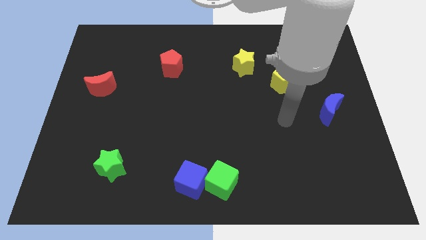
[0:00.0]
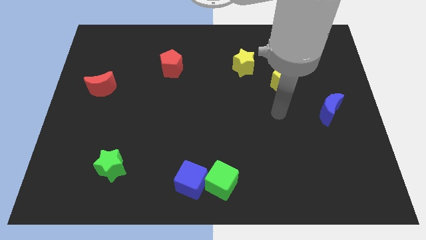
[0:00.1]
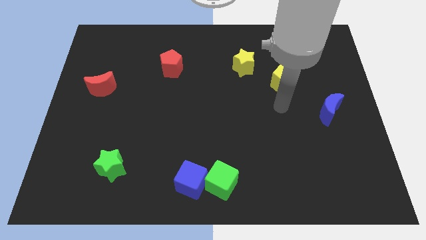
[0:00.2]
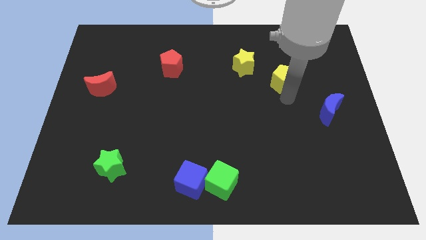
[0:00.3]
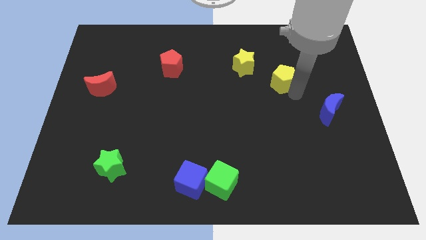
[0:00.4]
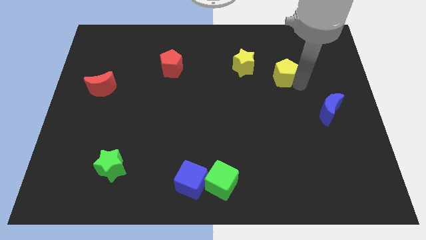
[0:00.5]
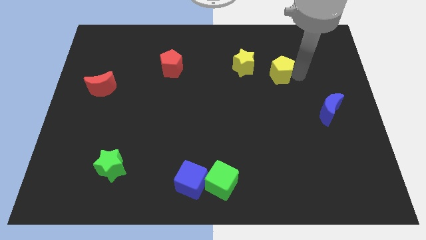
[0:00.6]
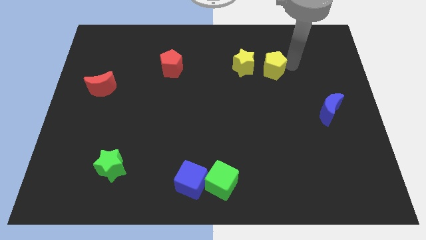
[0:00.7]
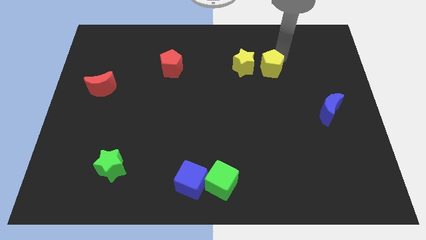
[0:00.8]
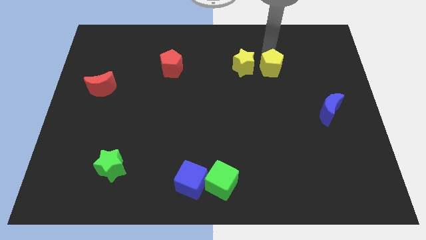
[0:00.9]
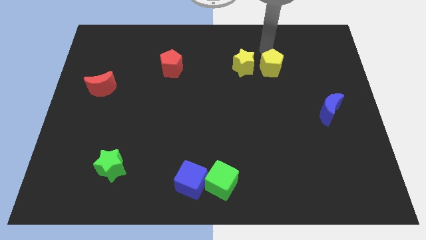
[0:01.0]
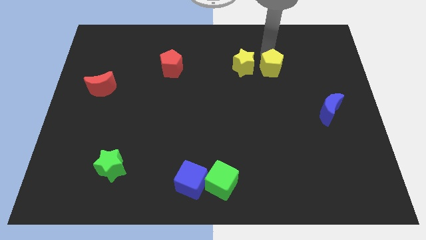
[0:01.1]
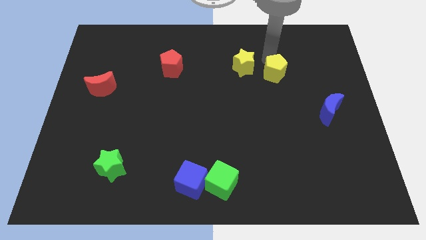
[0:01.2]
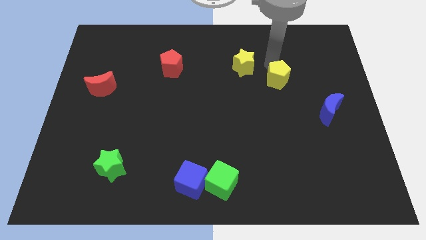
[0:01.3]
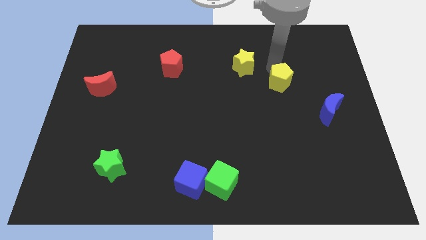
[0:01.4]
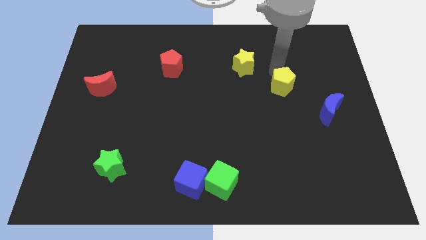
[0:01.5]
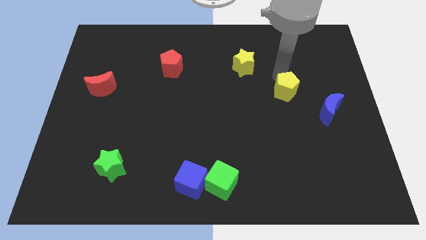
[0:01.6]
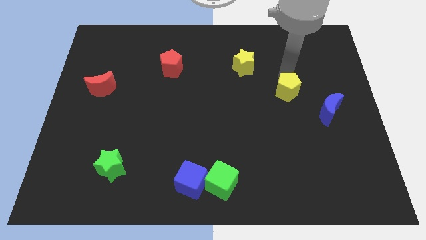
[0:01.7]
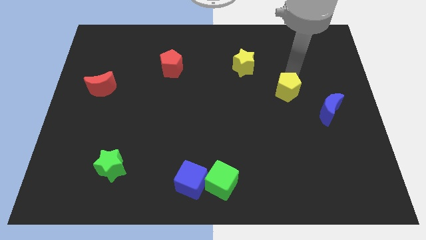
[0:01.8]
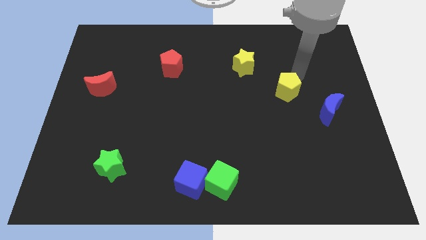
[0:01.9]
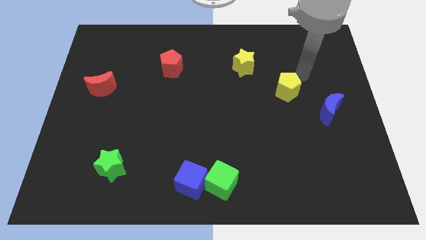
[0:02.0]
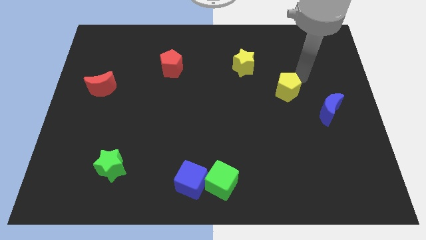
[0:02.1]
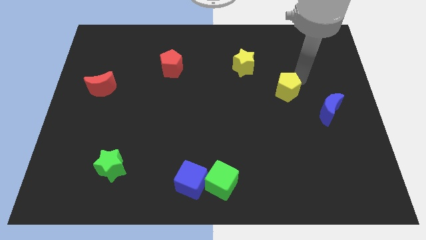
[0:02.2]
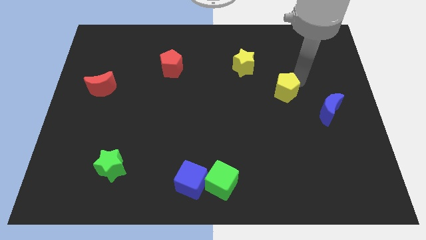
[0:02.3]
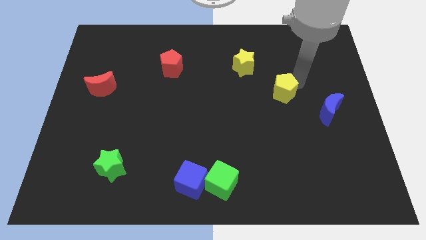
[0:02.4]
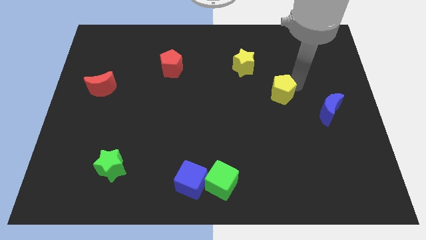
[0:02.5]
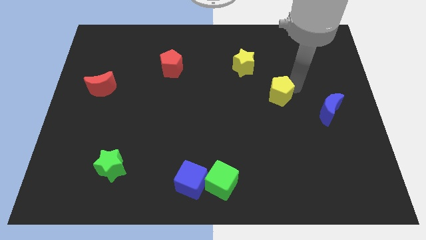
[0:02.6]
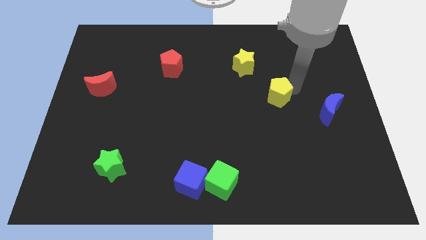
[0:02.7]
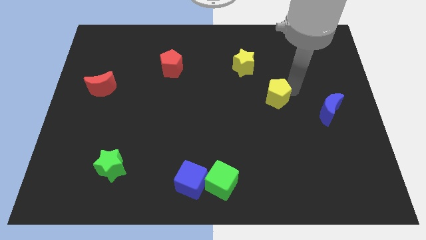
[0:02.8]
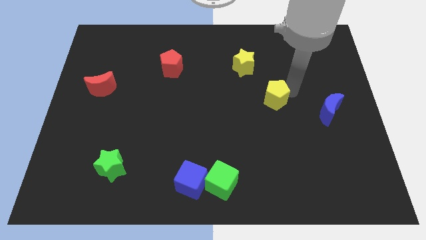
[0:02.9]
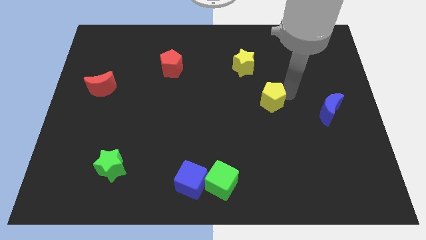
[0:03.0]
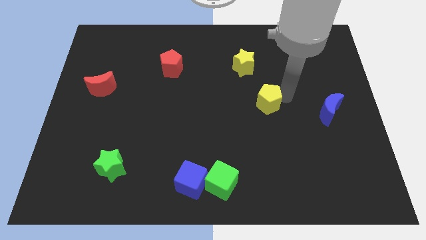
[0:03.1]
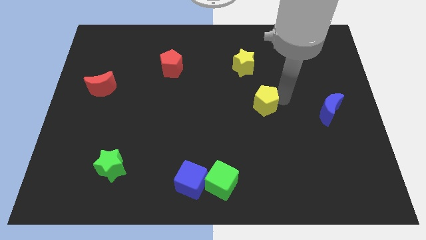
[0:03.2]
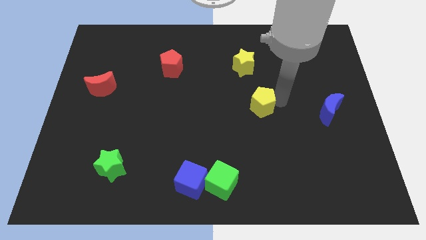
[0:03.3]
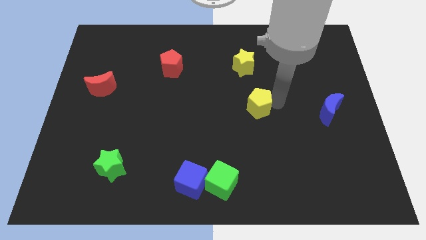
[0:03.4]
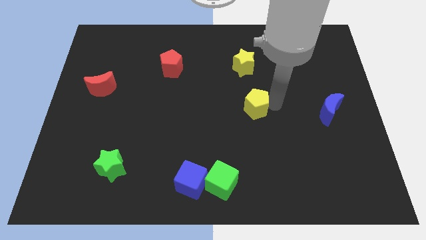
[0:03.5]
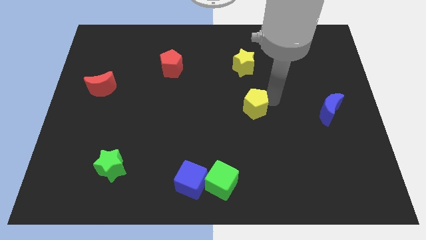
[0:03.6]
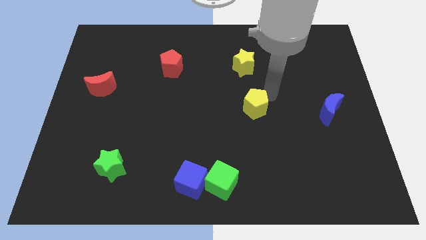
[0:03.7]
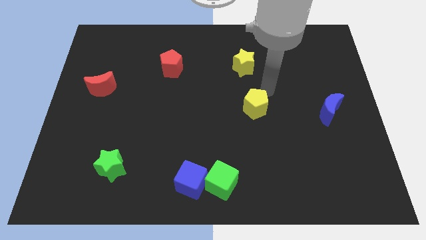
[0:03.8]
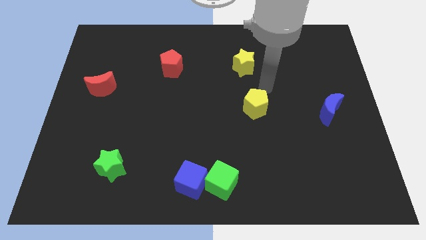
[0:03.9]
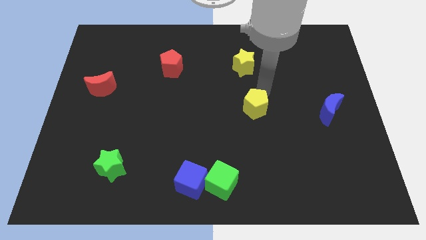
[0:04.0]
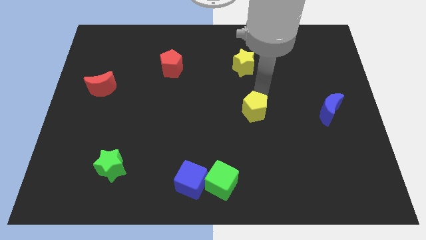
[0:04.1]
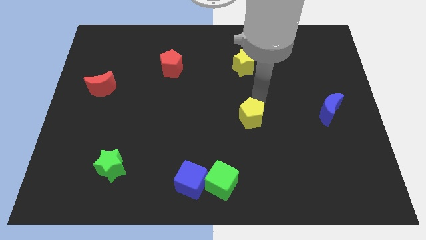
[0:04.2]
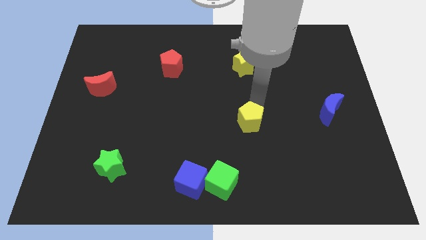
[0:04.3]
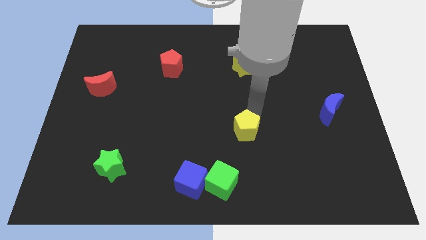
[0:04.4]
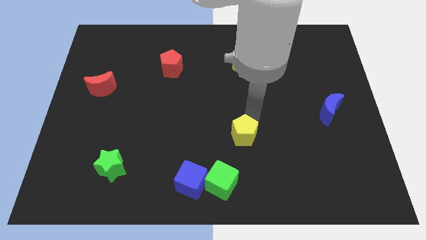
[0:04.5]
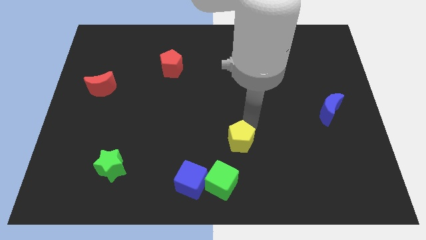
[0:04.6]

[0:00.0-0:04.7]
move the yellow pentagon diagonally downwards and left

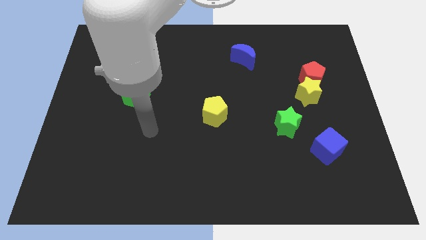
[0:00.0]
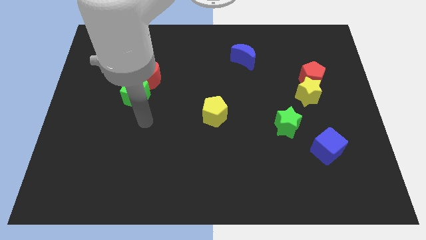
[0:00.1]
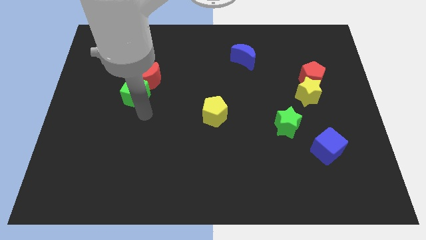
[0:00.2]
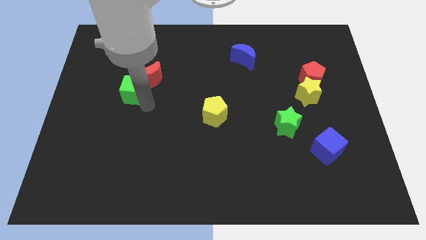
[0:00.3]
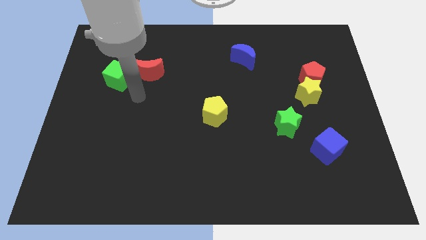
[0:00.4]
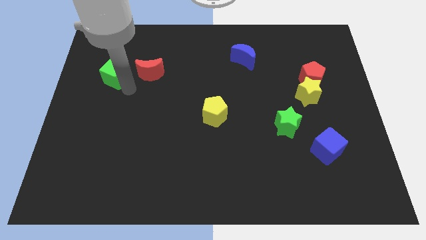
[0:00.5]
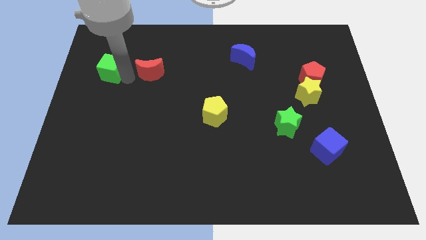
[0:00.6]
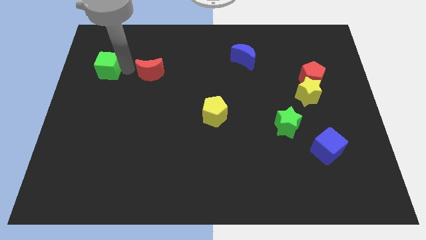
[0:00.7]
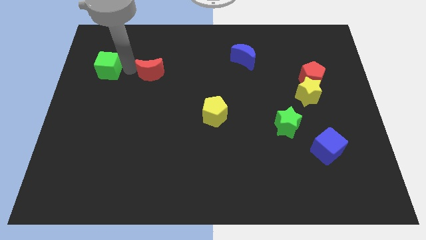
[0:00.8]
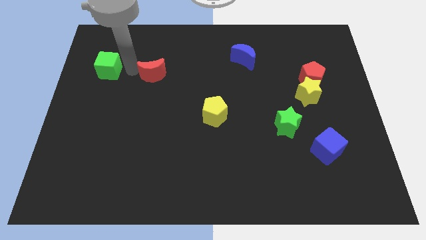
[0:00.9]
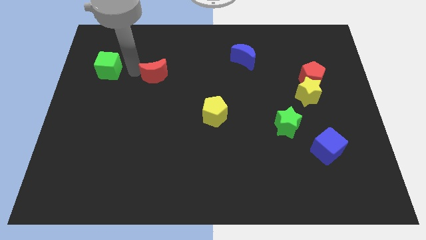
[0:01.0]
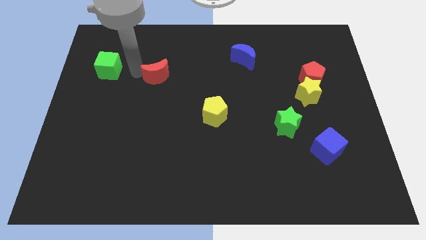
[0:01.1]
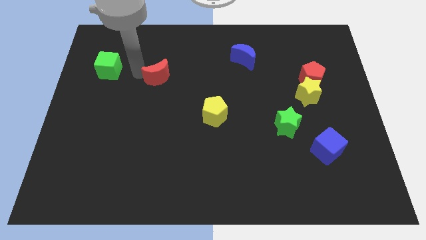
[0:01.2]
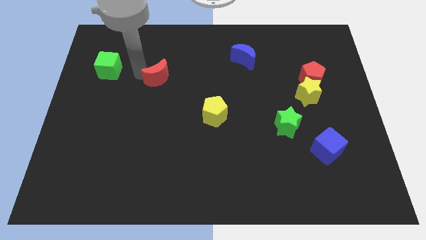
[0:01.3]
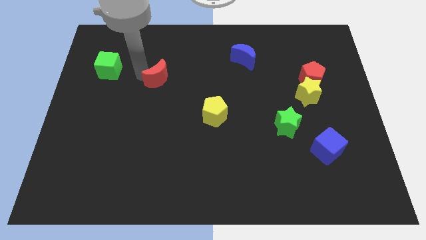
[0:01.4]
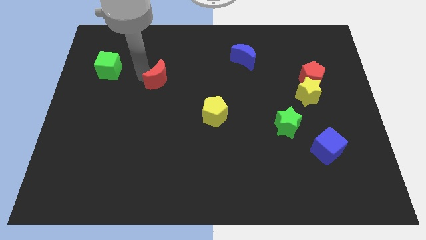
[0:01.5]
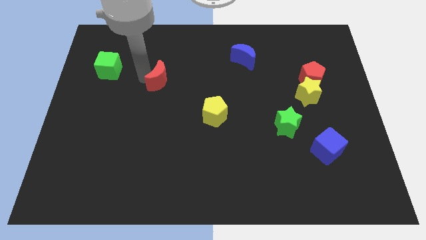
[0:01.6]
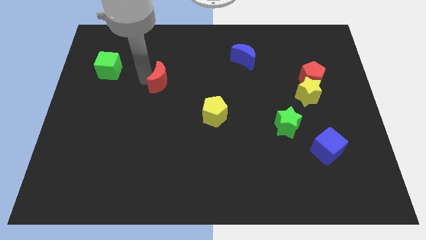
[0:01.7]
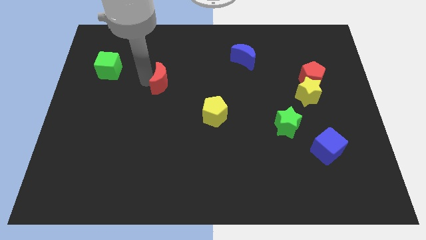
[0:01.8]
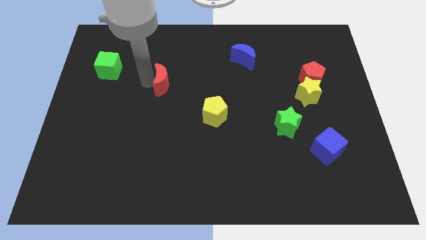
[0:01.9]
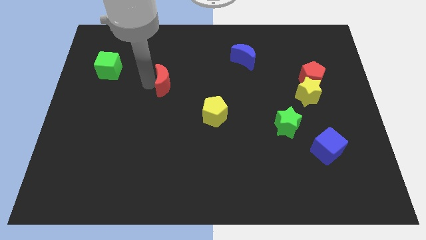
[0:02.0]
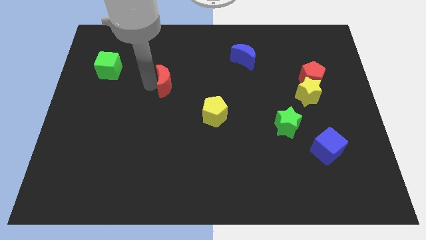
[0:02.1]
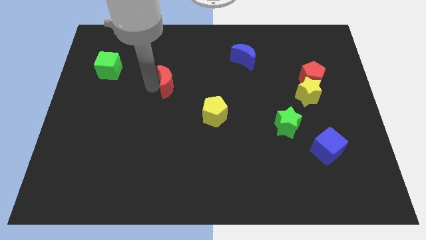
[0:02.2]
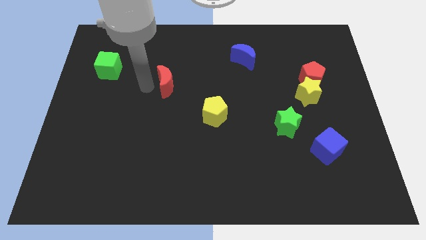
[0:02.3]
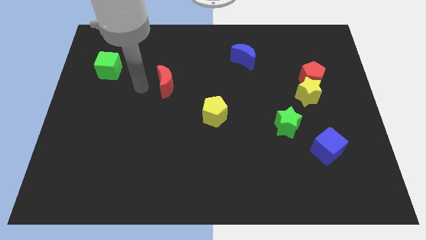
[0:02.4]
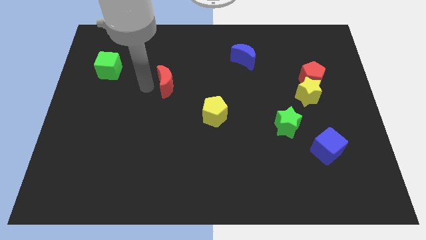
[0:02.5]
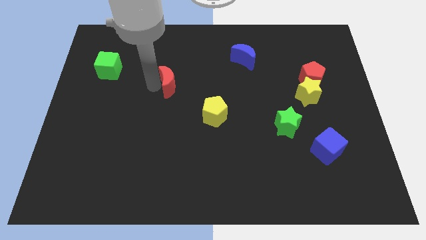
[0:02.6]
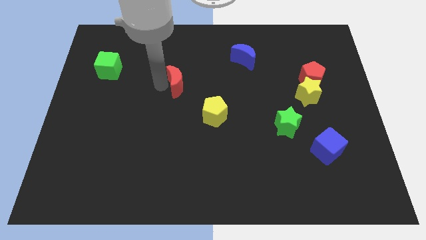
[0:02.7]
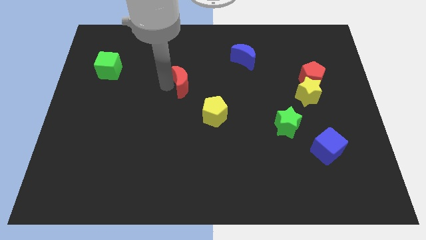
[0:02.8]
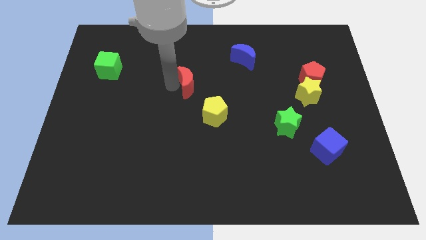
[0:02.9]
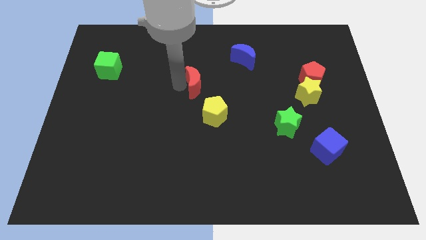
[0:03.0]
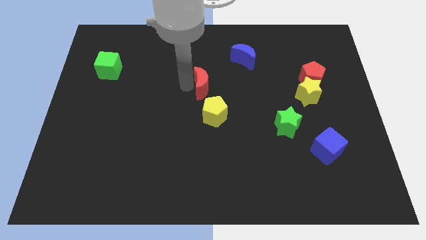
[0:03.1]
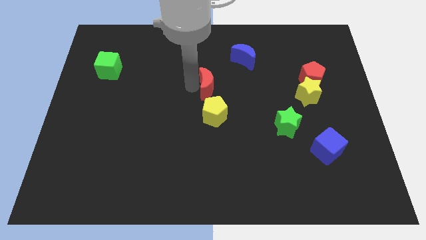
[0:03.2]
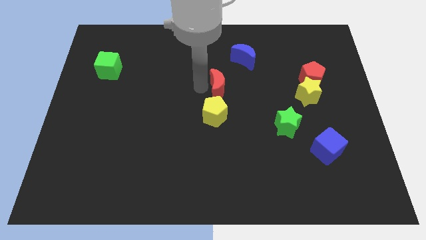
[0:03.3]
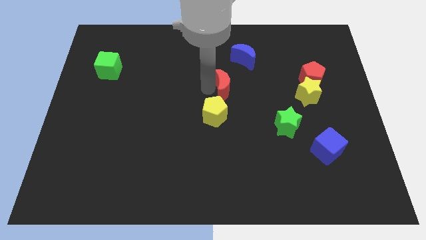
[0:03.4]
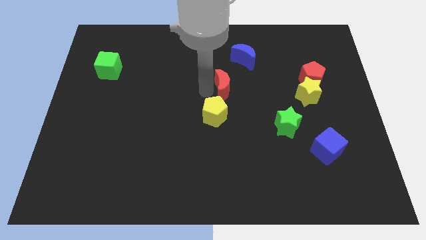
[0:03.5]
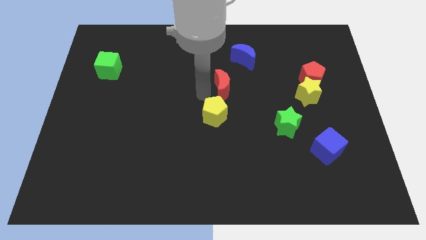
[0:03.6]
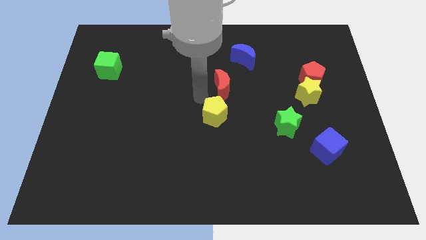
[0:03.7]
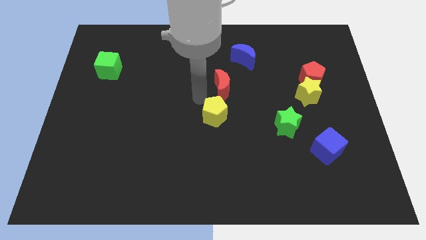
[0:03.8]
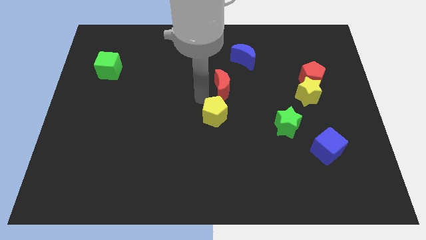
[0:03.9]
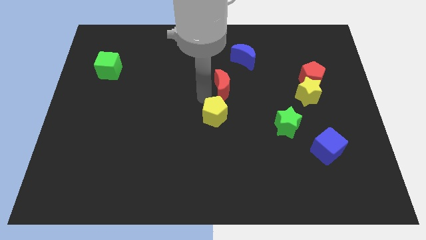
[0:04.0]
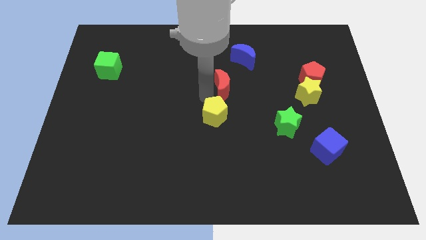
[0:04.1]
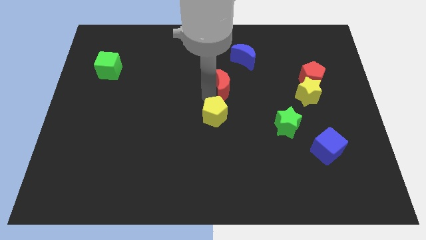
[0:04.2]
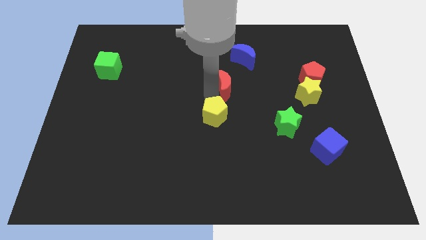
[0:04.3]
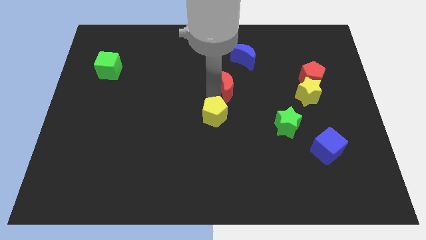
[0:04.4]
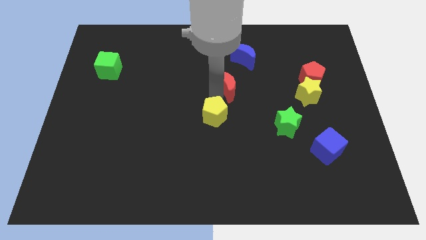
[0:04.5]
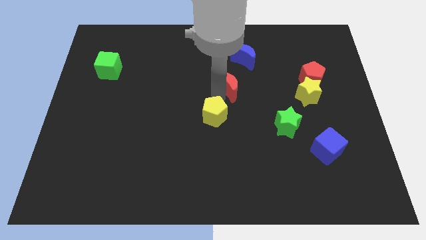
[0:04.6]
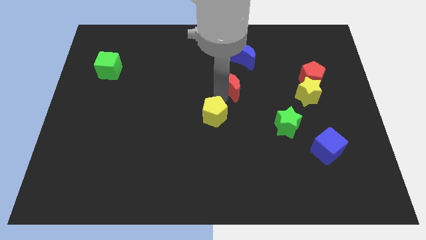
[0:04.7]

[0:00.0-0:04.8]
push the red moon right
